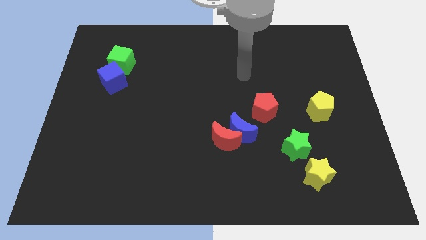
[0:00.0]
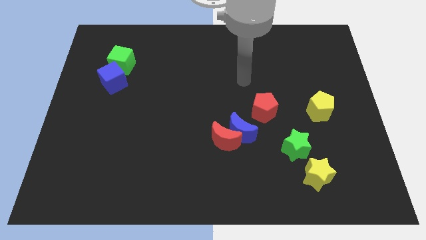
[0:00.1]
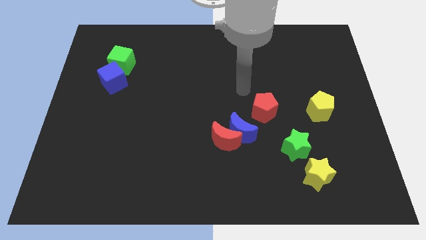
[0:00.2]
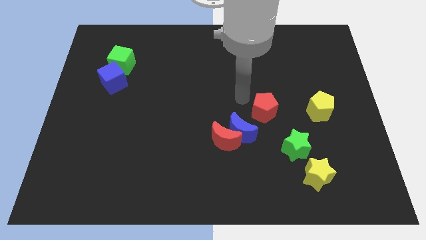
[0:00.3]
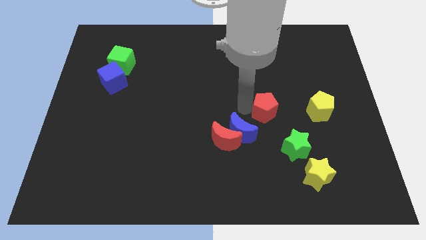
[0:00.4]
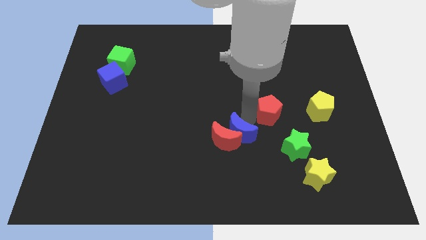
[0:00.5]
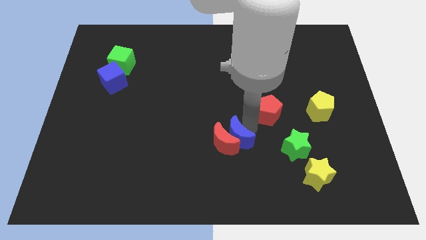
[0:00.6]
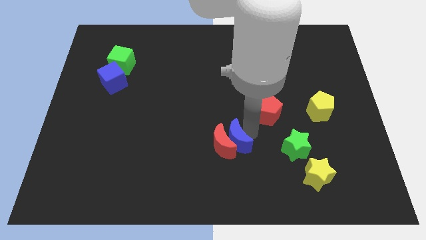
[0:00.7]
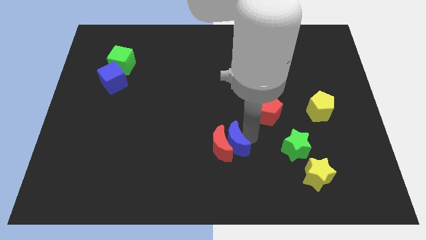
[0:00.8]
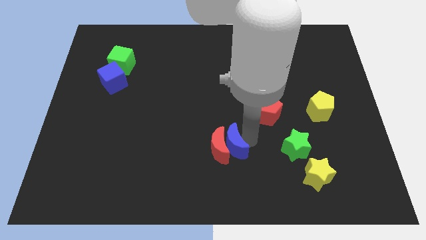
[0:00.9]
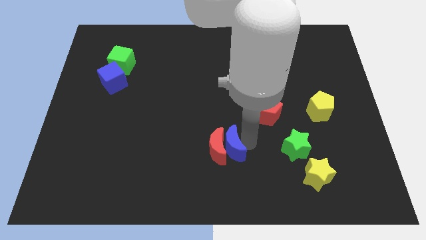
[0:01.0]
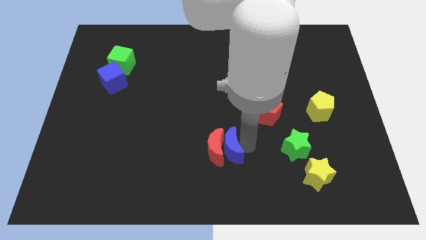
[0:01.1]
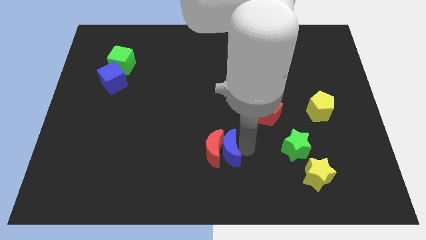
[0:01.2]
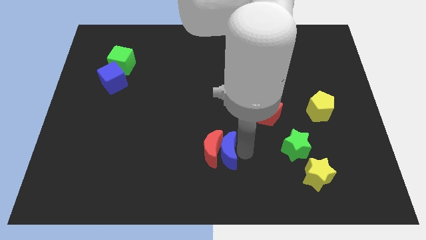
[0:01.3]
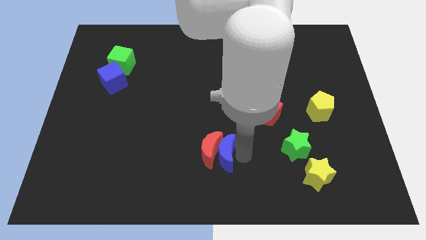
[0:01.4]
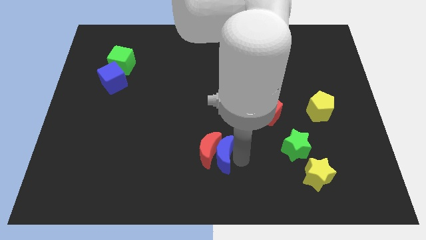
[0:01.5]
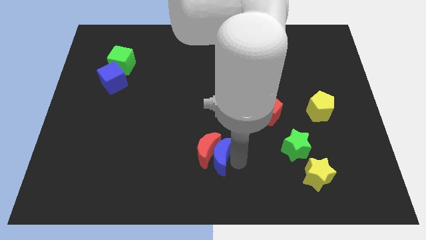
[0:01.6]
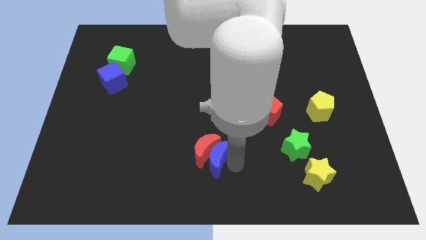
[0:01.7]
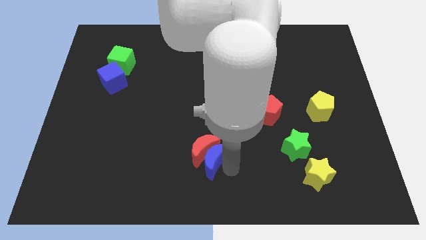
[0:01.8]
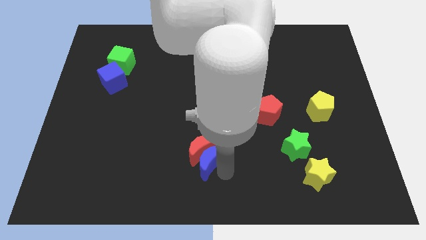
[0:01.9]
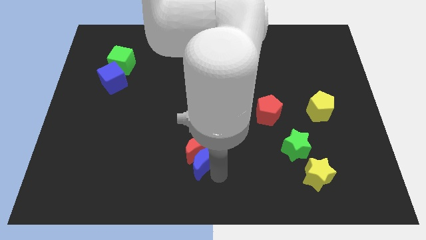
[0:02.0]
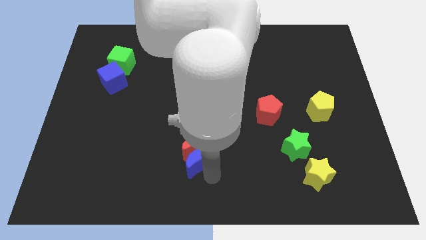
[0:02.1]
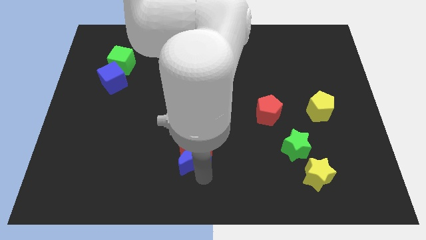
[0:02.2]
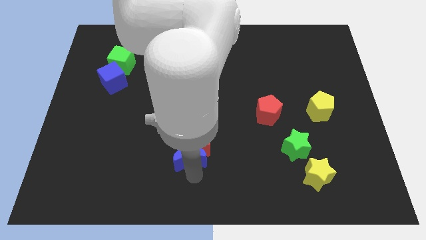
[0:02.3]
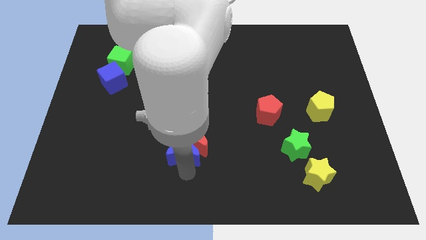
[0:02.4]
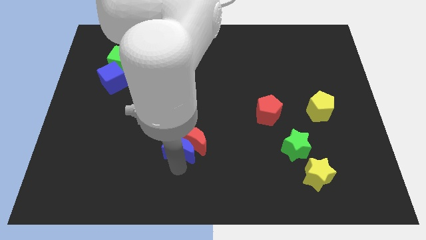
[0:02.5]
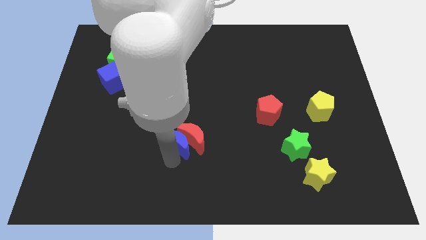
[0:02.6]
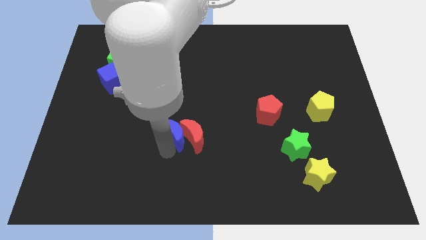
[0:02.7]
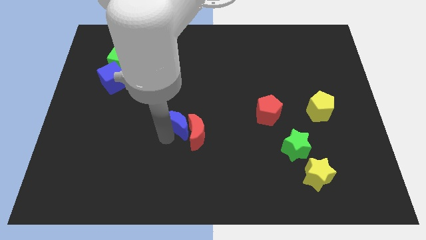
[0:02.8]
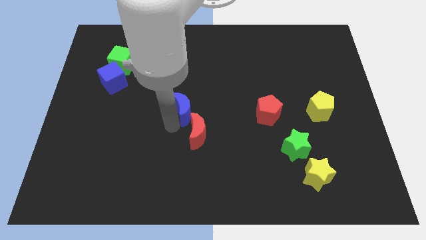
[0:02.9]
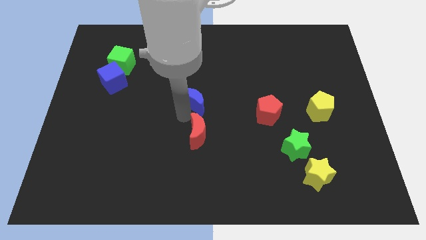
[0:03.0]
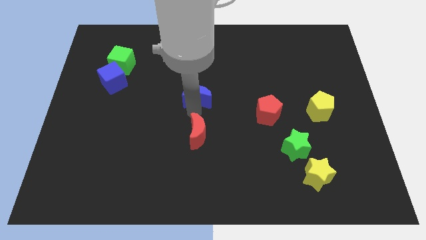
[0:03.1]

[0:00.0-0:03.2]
move the red moon away from the blue moon

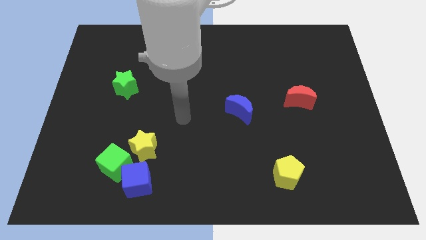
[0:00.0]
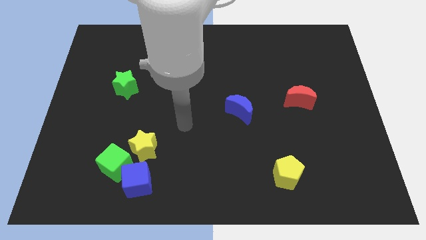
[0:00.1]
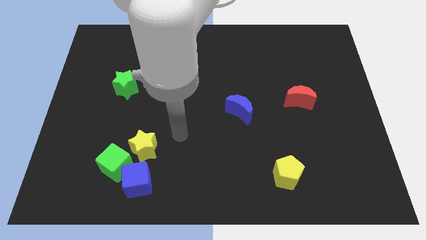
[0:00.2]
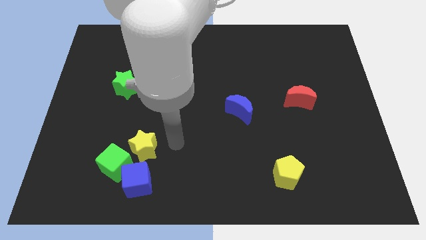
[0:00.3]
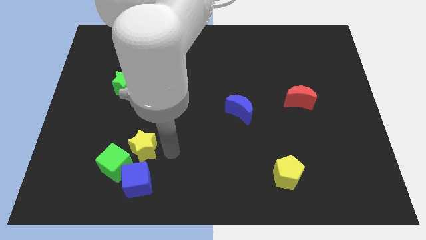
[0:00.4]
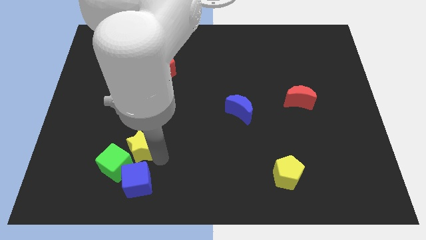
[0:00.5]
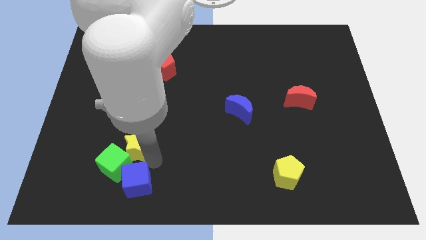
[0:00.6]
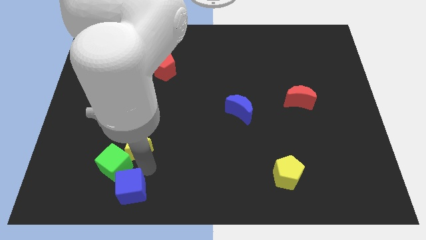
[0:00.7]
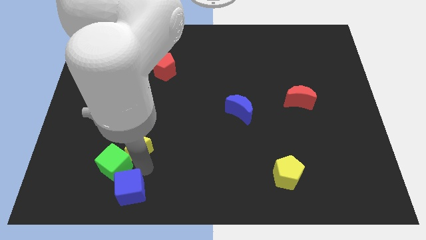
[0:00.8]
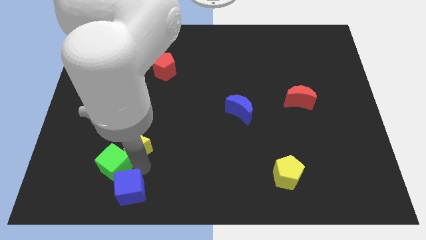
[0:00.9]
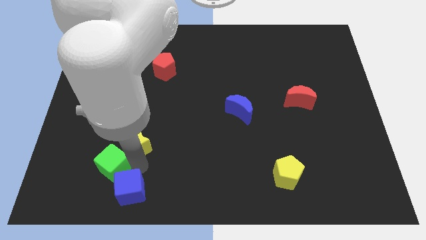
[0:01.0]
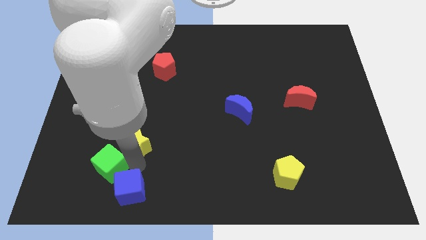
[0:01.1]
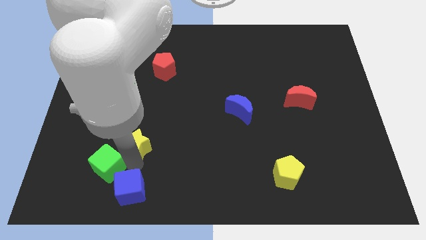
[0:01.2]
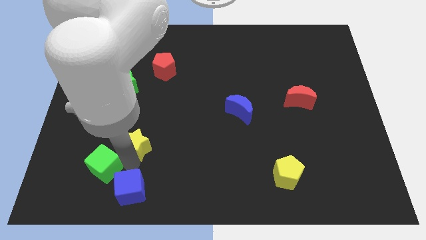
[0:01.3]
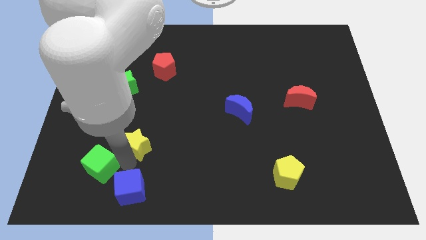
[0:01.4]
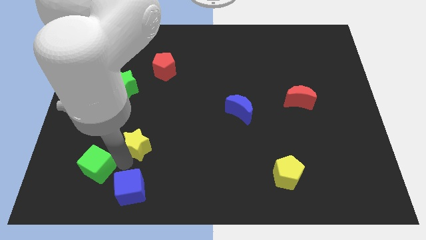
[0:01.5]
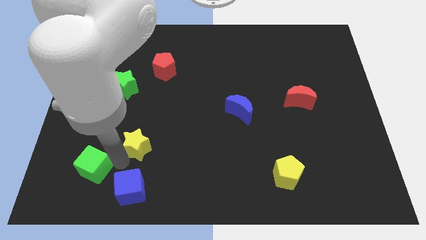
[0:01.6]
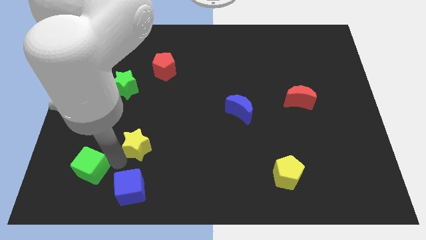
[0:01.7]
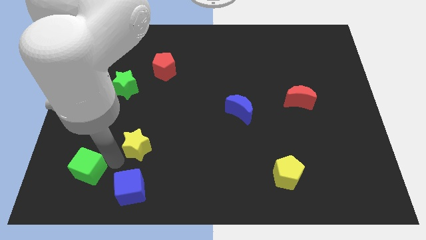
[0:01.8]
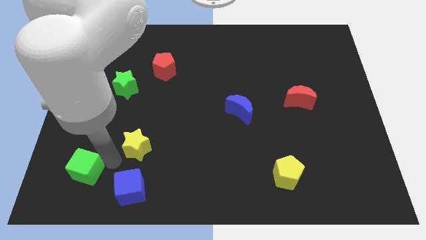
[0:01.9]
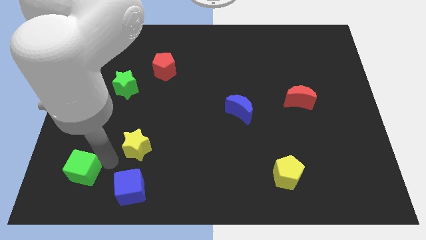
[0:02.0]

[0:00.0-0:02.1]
pull the green cube apart from the blue cube and yellow star

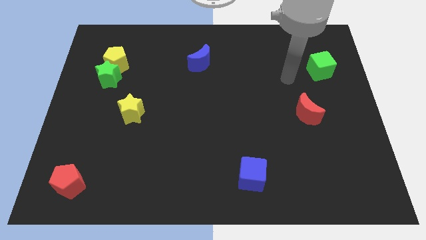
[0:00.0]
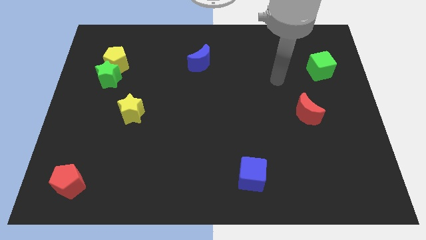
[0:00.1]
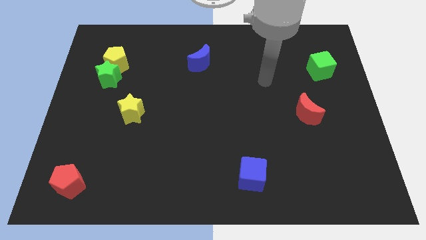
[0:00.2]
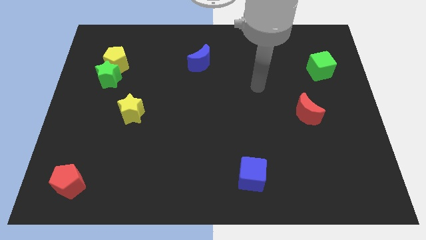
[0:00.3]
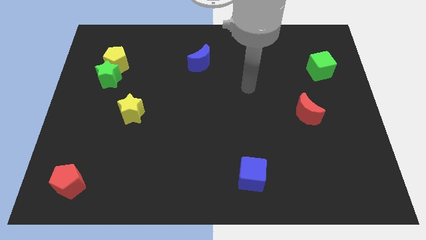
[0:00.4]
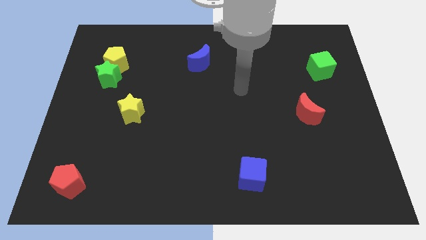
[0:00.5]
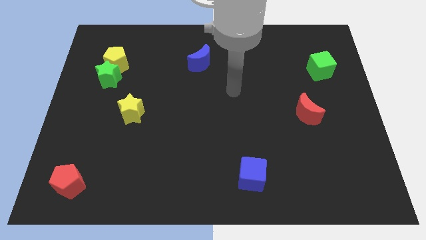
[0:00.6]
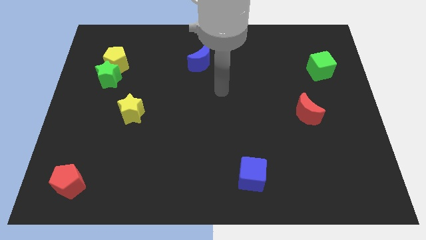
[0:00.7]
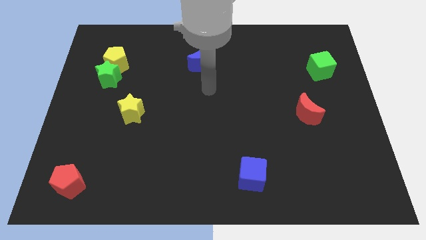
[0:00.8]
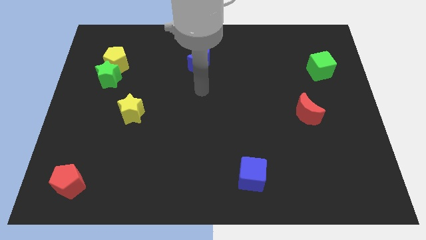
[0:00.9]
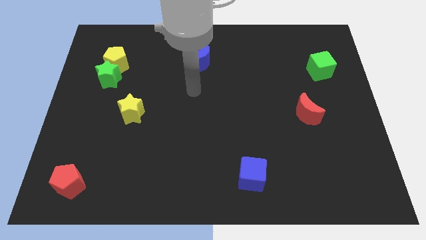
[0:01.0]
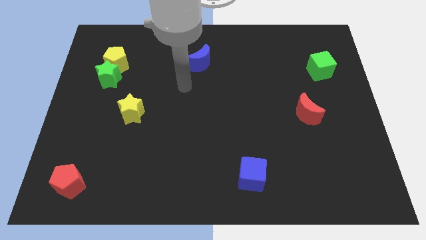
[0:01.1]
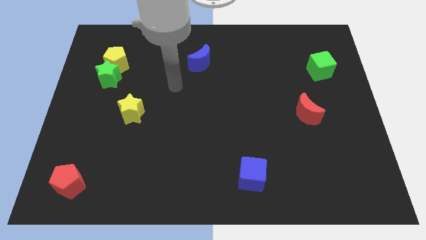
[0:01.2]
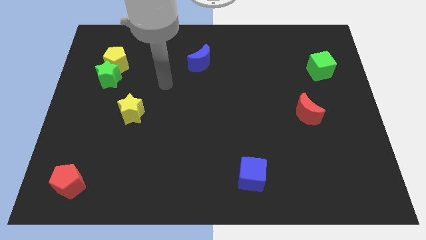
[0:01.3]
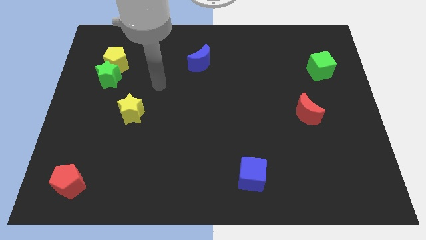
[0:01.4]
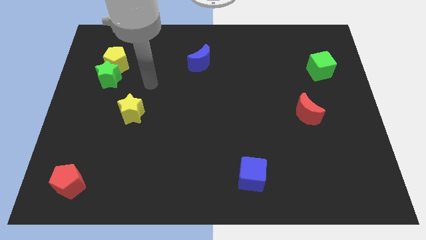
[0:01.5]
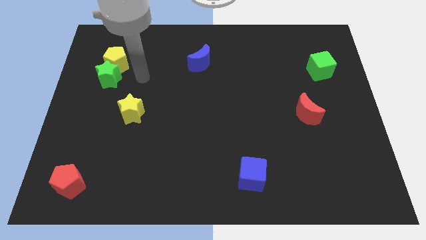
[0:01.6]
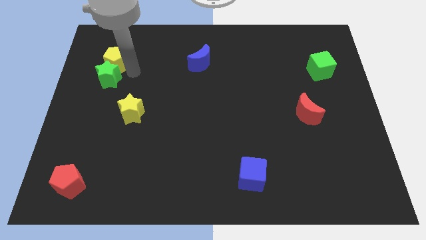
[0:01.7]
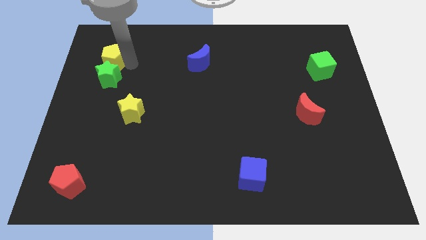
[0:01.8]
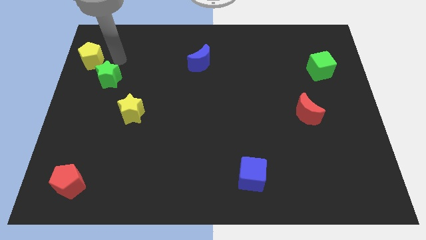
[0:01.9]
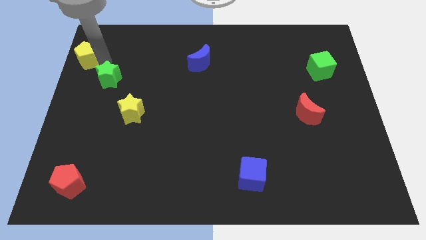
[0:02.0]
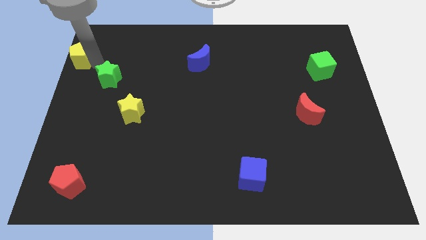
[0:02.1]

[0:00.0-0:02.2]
separate the green star from the yellow pentagon

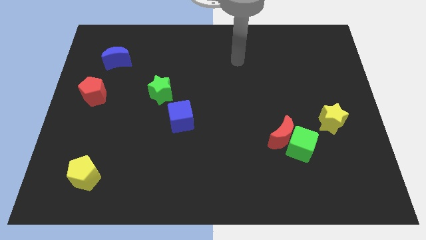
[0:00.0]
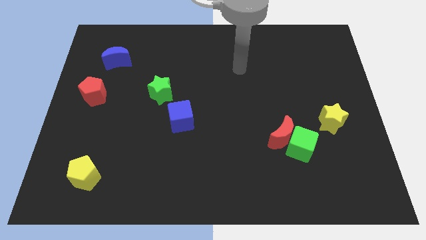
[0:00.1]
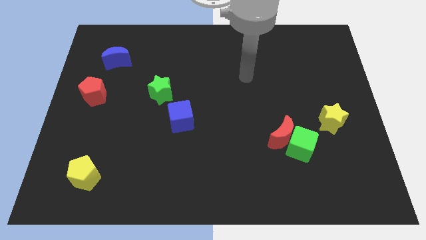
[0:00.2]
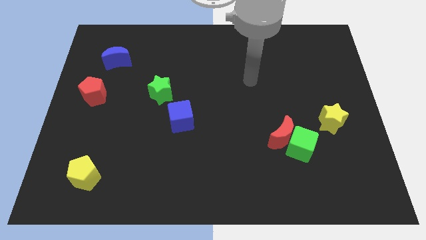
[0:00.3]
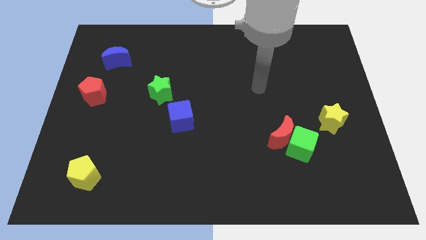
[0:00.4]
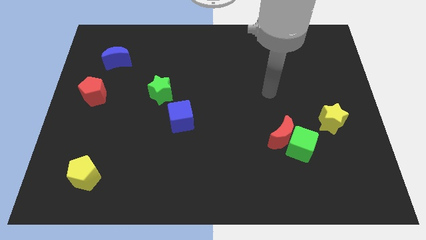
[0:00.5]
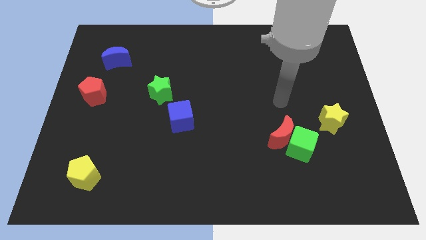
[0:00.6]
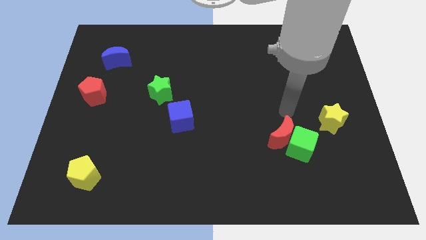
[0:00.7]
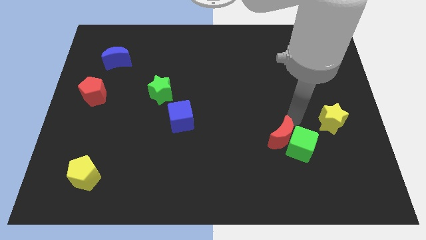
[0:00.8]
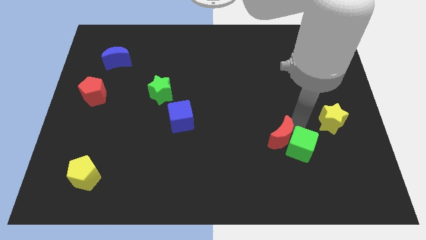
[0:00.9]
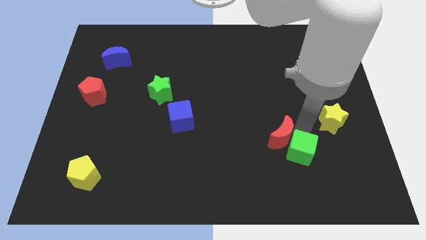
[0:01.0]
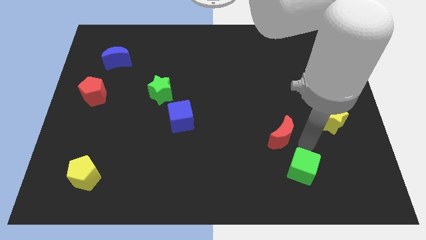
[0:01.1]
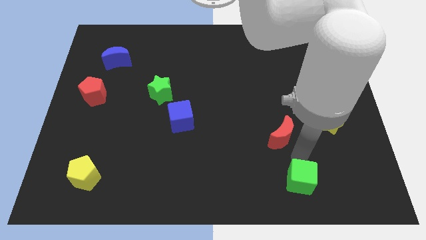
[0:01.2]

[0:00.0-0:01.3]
pull the red moon apart from the green cube

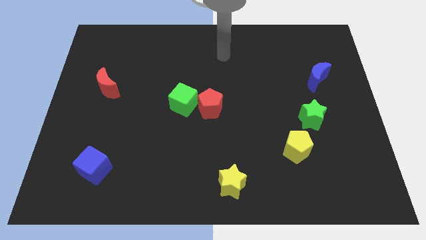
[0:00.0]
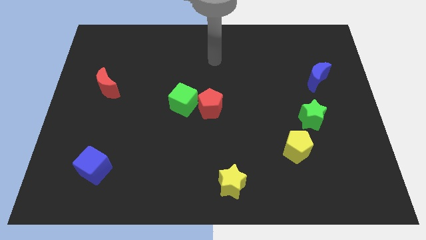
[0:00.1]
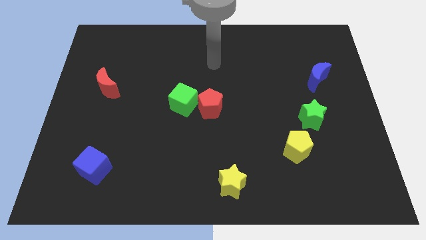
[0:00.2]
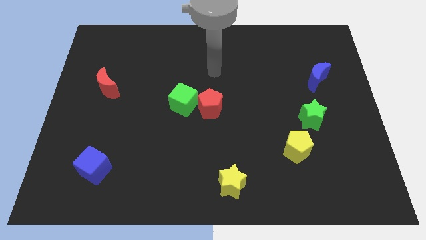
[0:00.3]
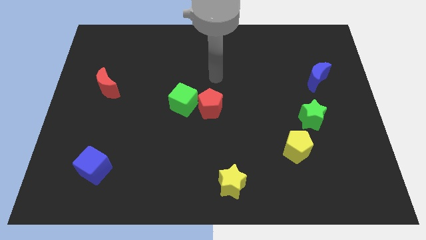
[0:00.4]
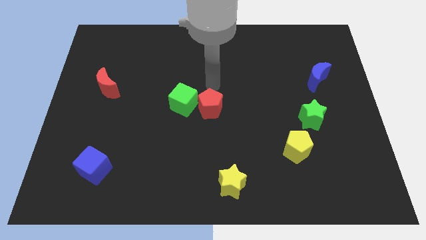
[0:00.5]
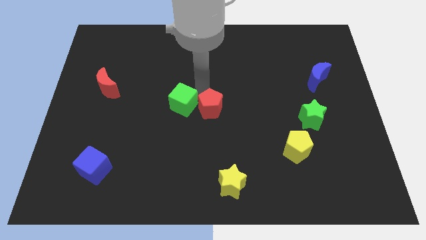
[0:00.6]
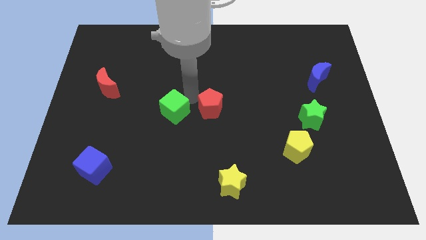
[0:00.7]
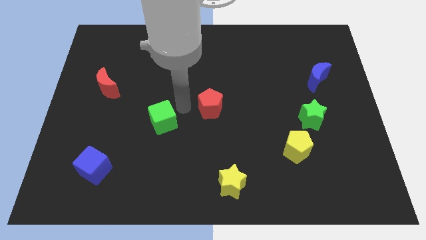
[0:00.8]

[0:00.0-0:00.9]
move the red pentagon away from the green cube
